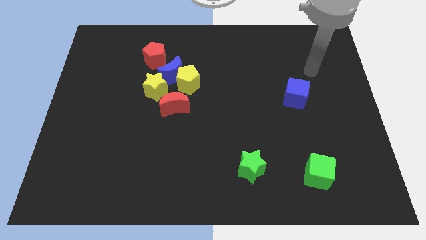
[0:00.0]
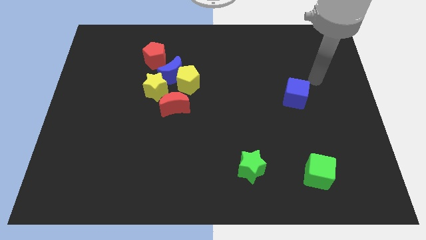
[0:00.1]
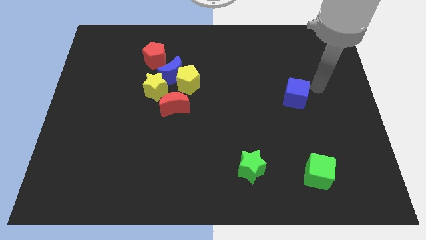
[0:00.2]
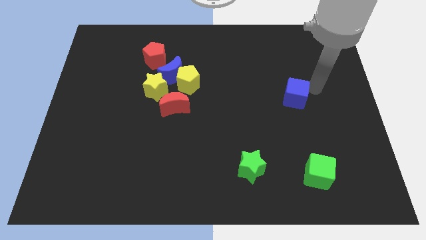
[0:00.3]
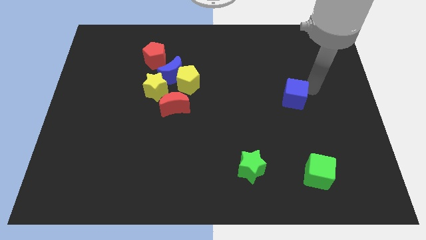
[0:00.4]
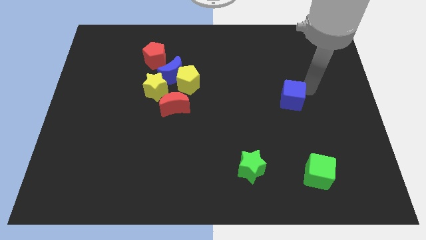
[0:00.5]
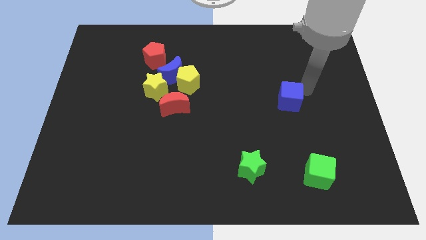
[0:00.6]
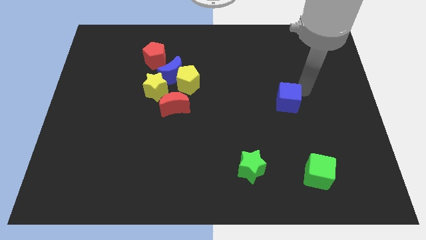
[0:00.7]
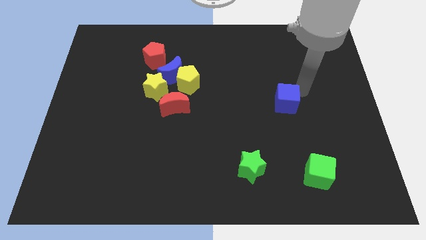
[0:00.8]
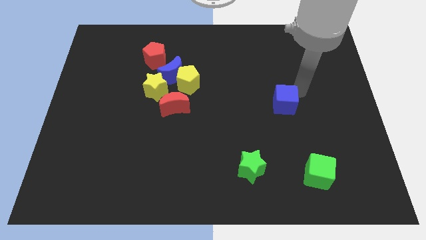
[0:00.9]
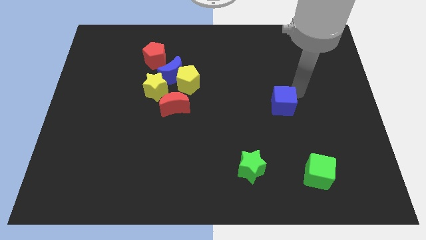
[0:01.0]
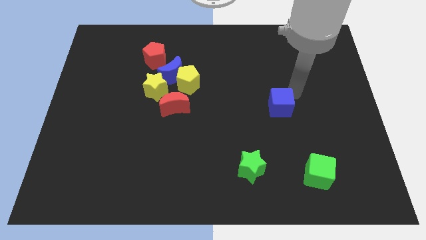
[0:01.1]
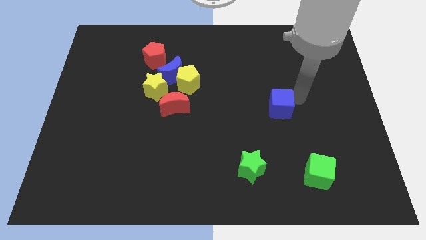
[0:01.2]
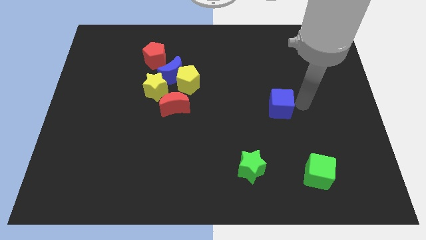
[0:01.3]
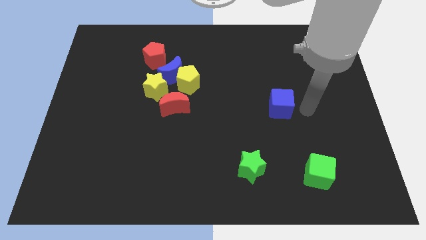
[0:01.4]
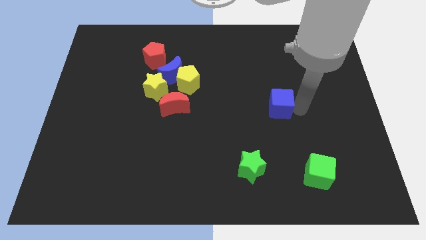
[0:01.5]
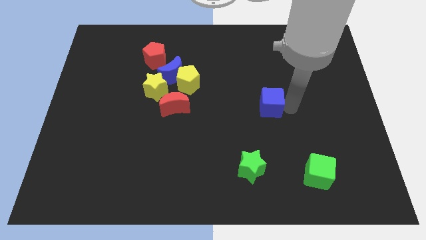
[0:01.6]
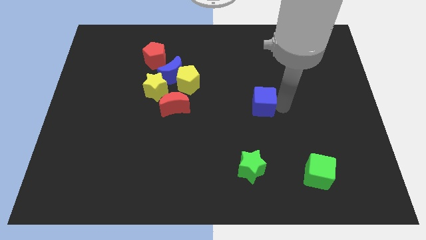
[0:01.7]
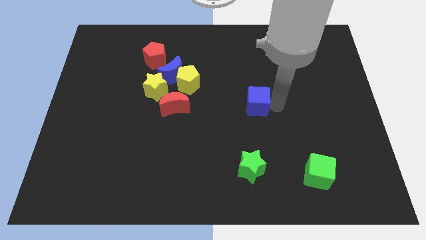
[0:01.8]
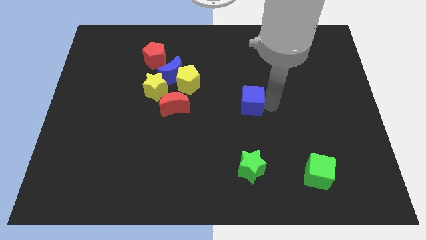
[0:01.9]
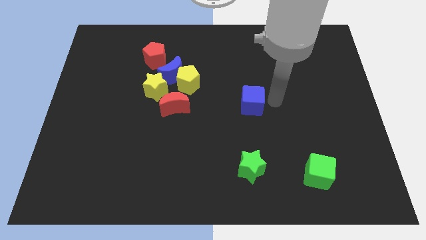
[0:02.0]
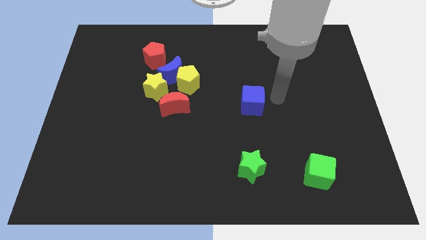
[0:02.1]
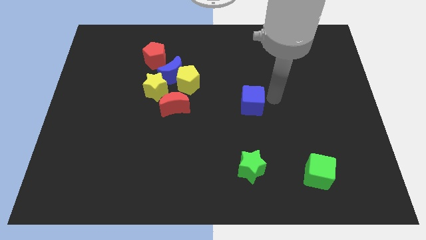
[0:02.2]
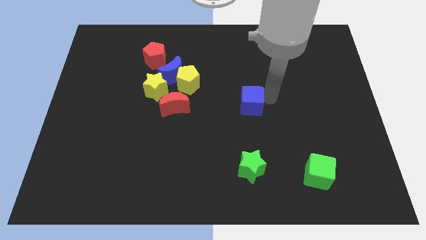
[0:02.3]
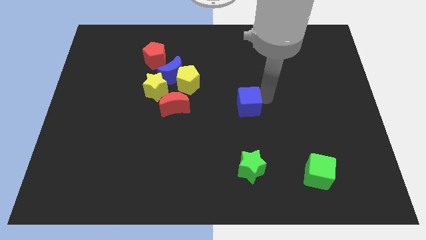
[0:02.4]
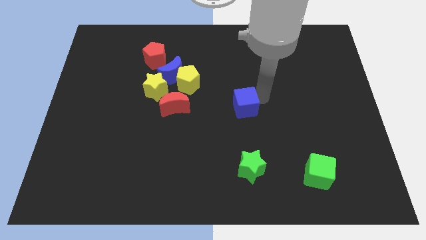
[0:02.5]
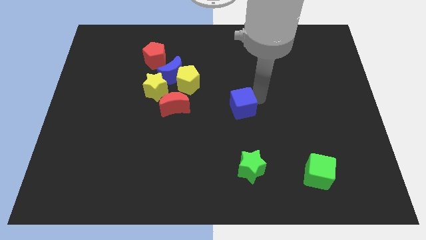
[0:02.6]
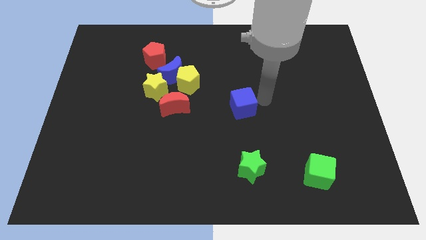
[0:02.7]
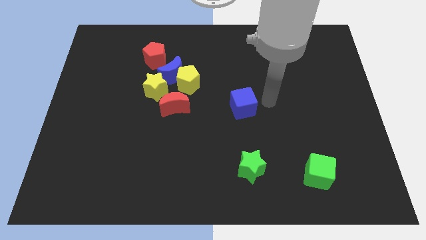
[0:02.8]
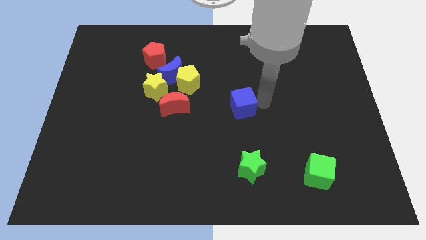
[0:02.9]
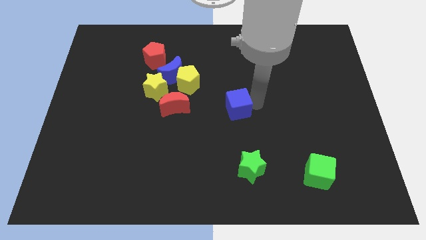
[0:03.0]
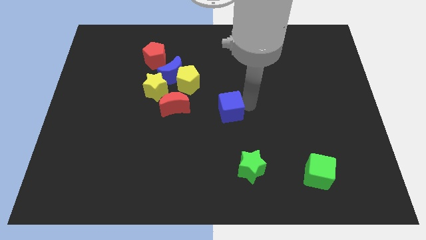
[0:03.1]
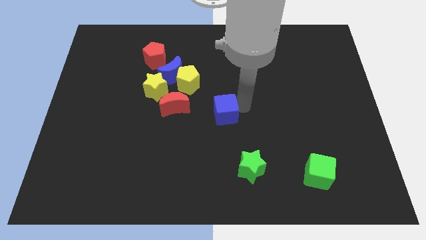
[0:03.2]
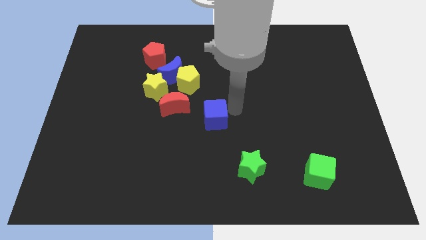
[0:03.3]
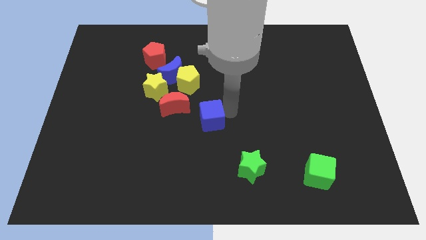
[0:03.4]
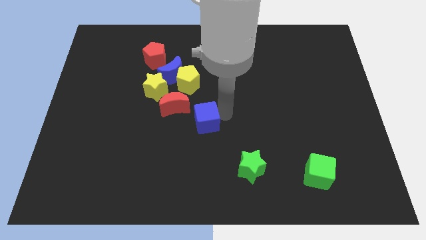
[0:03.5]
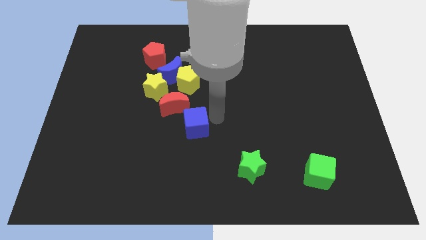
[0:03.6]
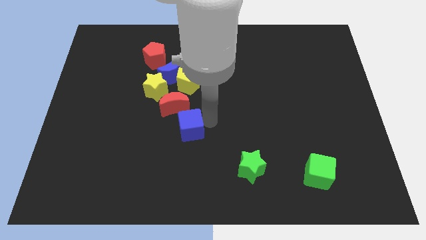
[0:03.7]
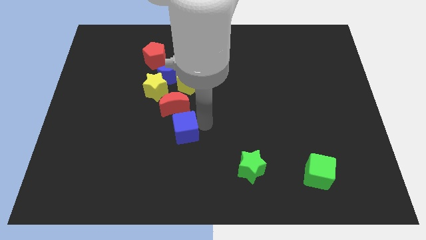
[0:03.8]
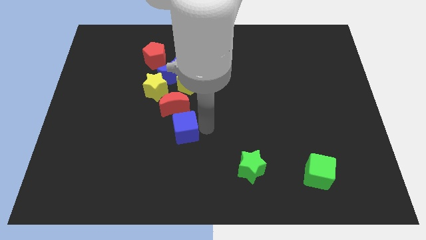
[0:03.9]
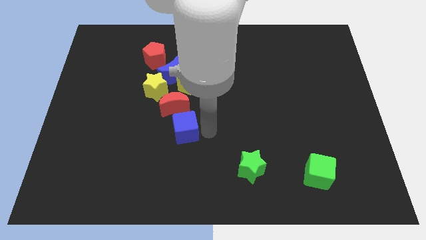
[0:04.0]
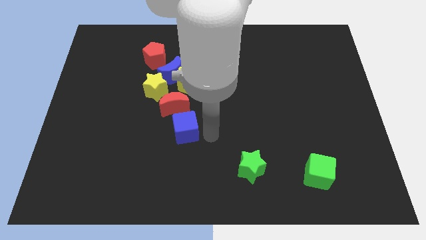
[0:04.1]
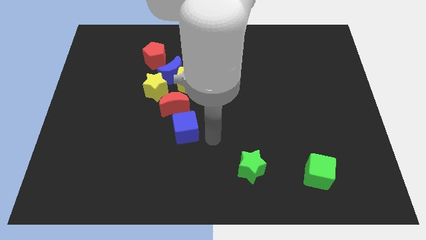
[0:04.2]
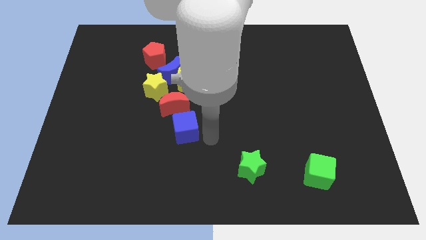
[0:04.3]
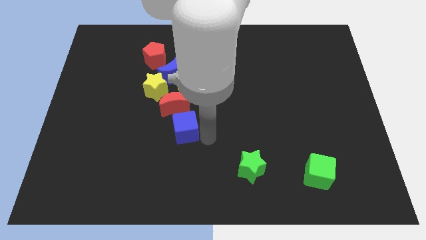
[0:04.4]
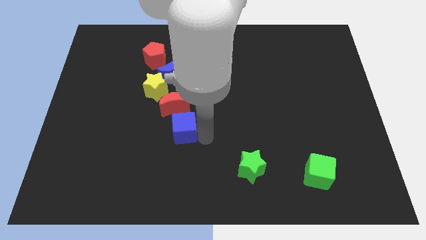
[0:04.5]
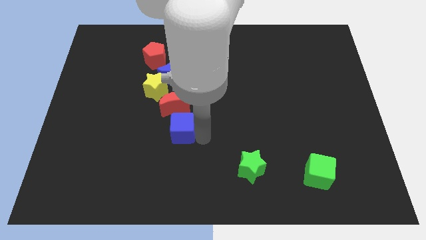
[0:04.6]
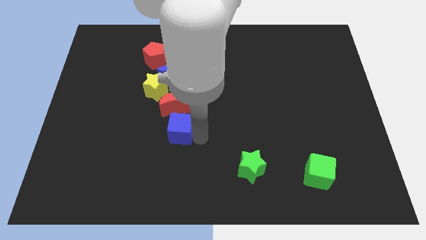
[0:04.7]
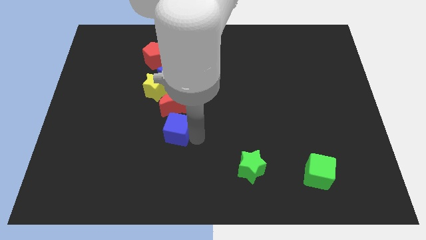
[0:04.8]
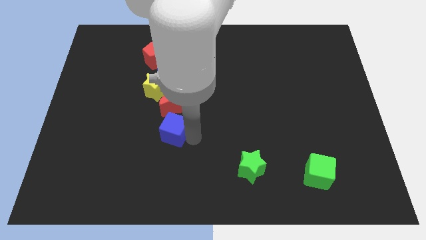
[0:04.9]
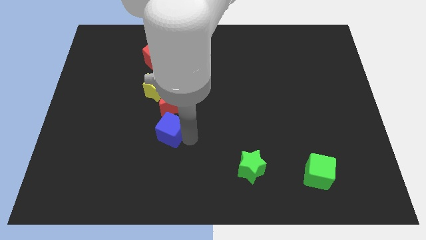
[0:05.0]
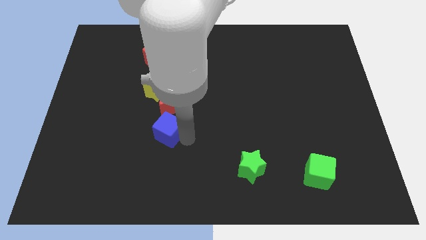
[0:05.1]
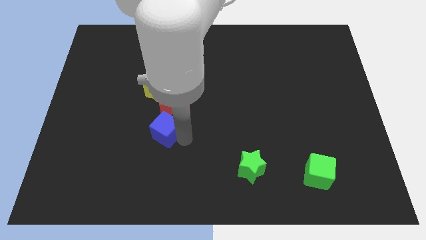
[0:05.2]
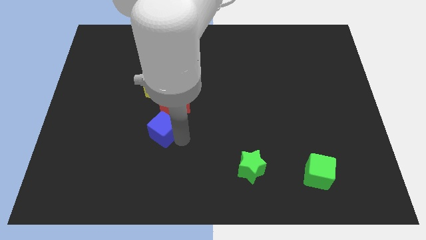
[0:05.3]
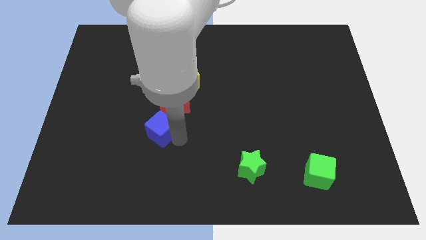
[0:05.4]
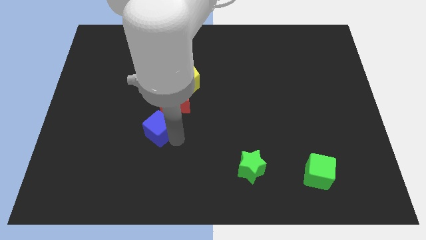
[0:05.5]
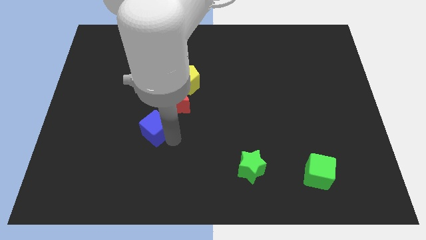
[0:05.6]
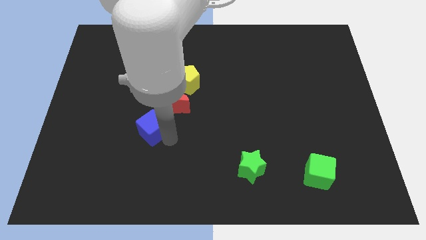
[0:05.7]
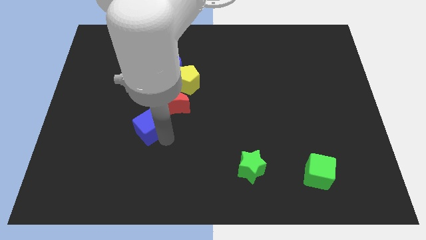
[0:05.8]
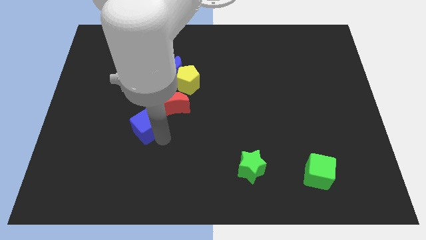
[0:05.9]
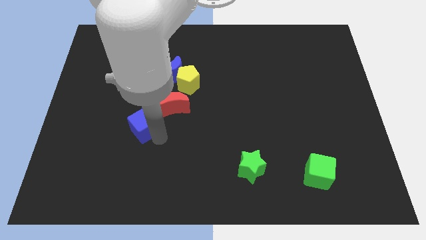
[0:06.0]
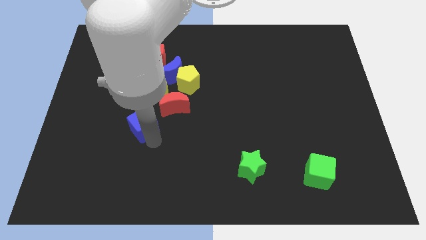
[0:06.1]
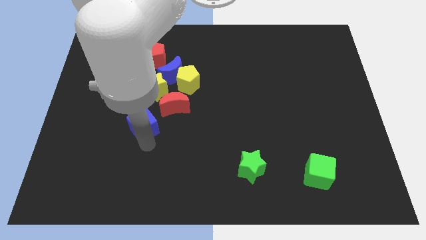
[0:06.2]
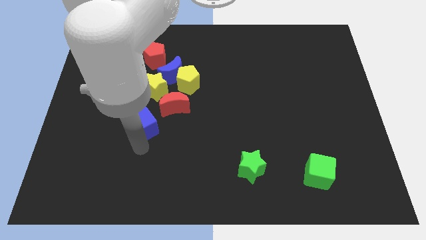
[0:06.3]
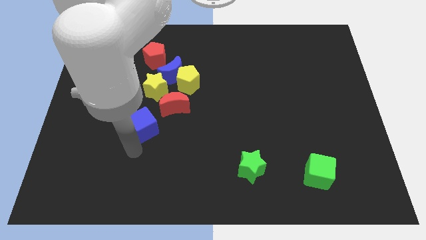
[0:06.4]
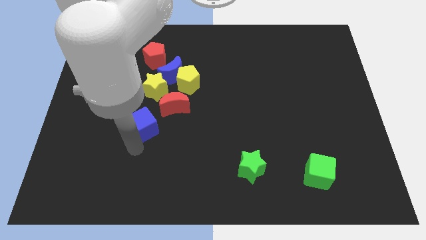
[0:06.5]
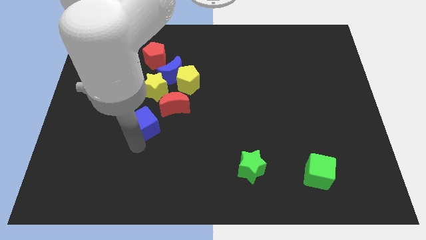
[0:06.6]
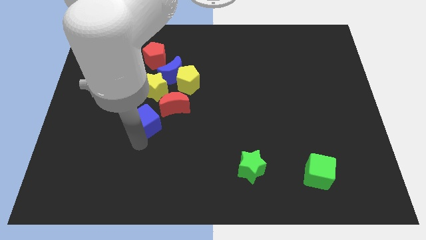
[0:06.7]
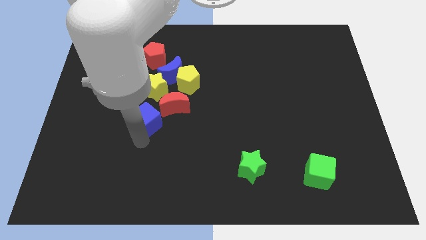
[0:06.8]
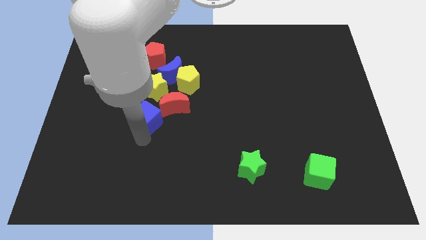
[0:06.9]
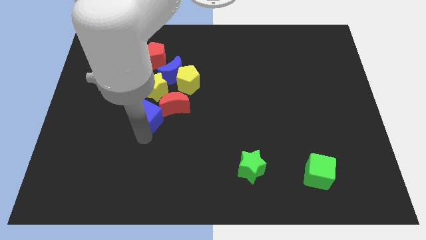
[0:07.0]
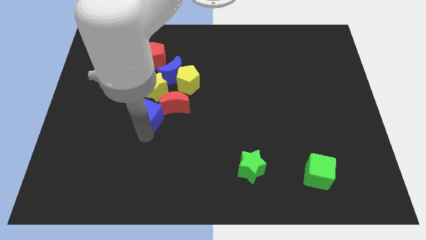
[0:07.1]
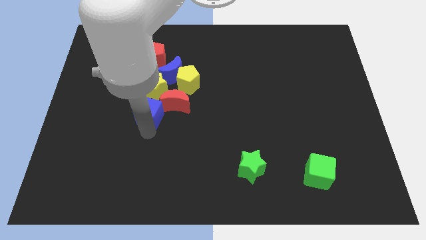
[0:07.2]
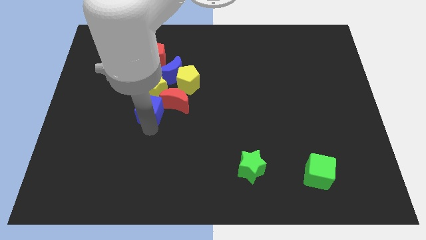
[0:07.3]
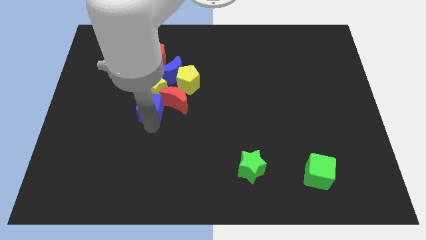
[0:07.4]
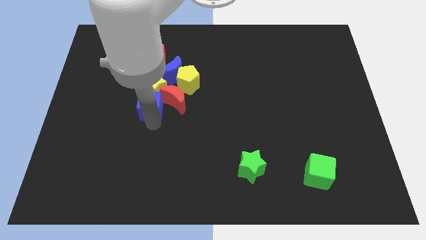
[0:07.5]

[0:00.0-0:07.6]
move the blue cube towards the yellow star
